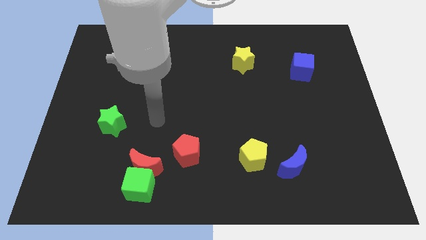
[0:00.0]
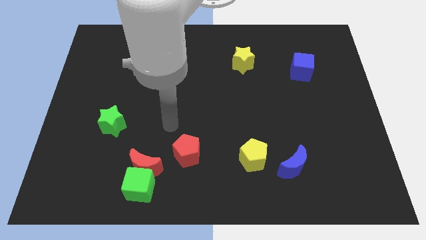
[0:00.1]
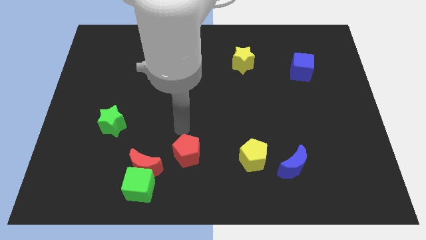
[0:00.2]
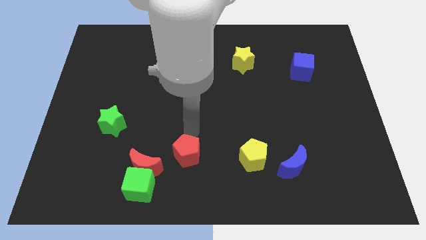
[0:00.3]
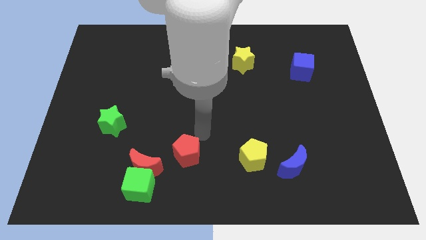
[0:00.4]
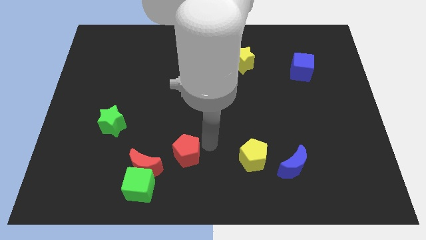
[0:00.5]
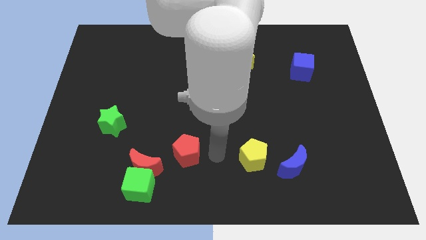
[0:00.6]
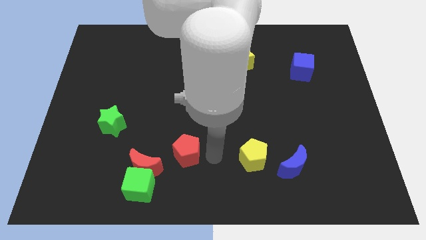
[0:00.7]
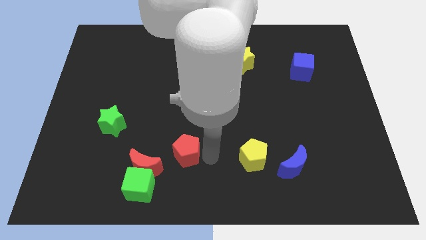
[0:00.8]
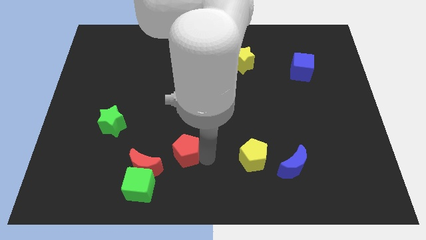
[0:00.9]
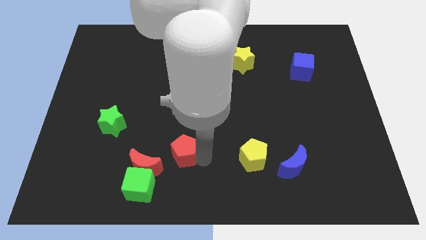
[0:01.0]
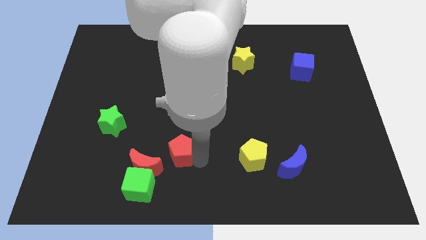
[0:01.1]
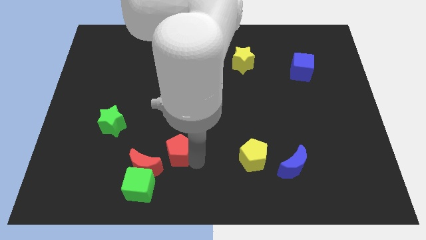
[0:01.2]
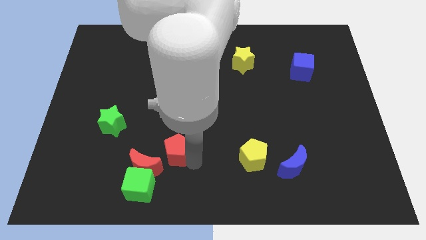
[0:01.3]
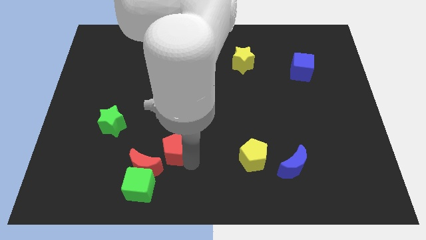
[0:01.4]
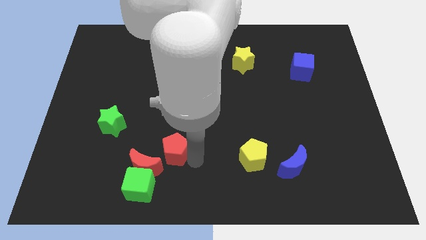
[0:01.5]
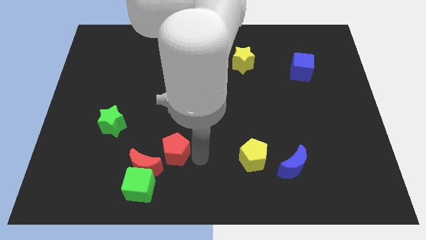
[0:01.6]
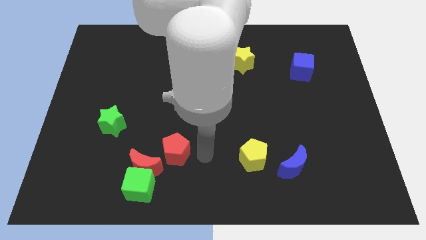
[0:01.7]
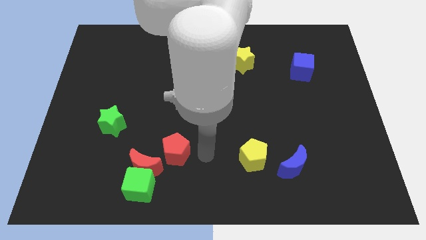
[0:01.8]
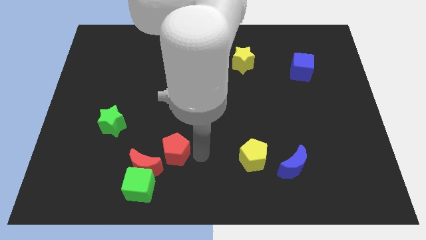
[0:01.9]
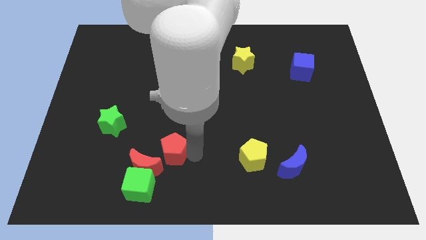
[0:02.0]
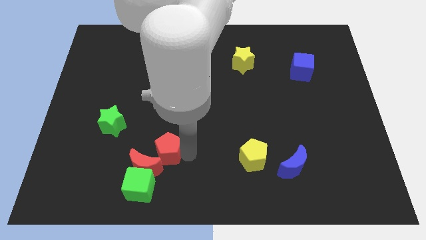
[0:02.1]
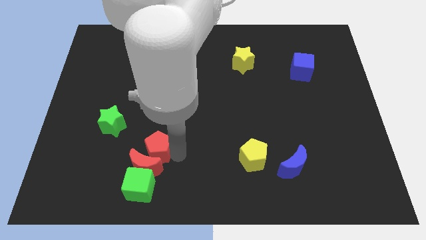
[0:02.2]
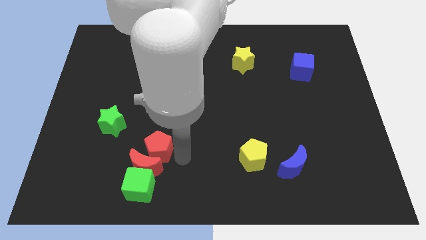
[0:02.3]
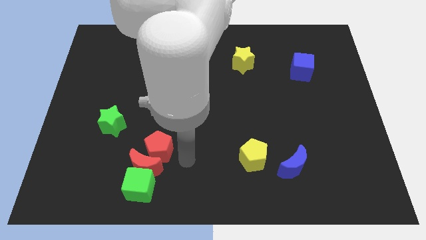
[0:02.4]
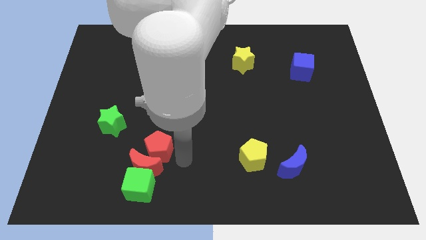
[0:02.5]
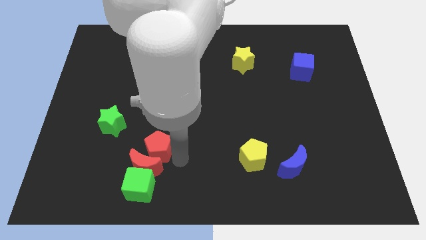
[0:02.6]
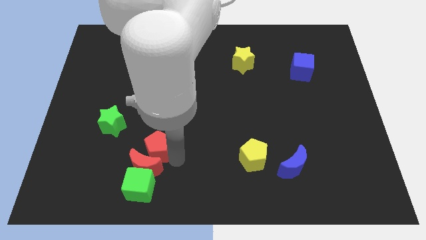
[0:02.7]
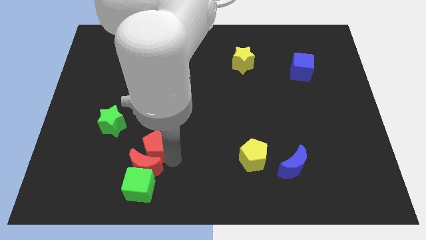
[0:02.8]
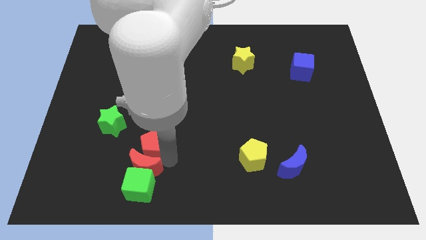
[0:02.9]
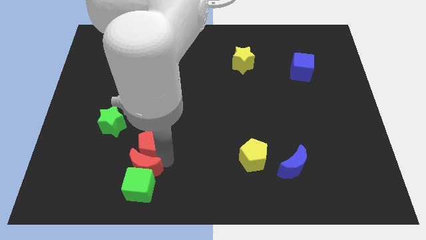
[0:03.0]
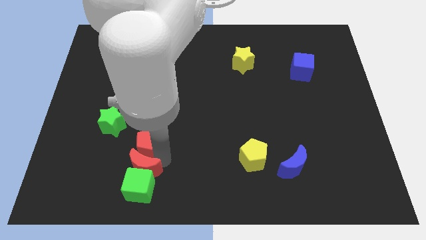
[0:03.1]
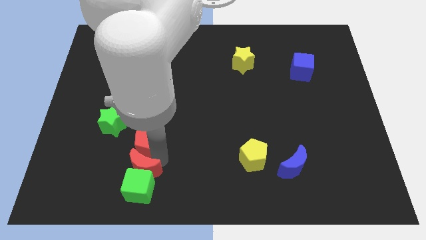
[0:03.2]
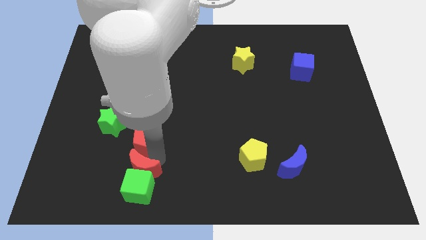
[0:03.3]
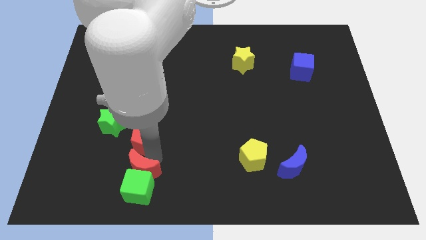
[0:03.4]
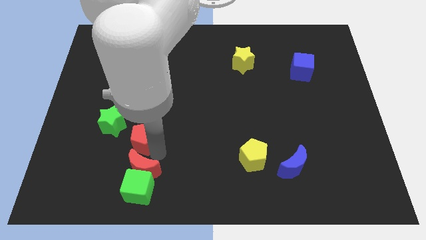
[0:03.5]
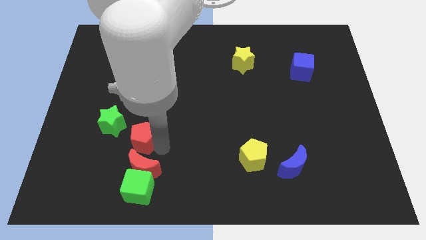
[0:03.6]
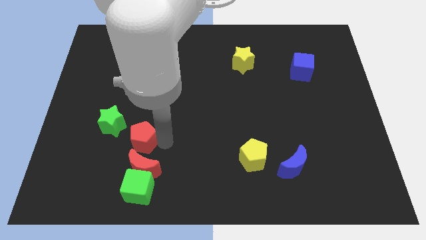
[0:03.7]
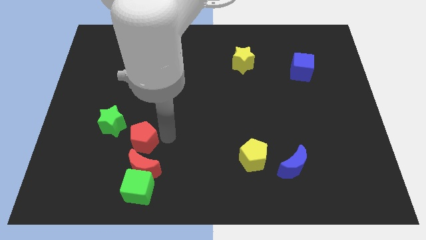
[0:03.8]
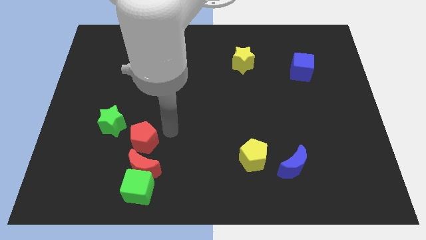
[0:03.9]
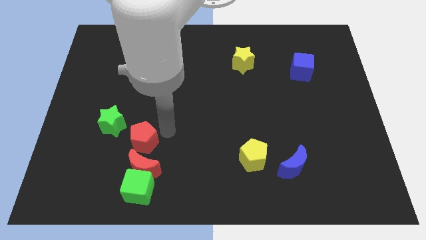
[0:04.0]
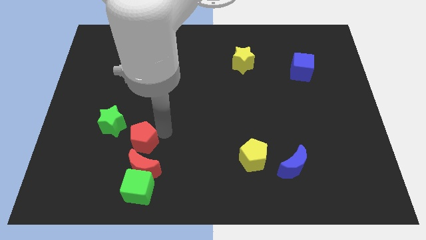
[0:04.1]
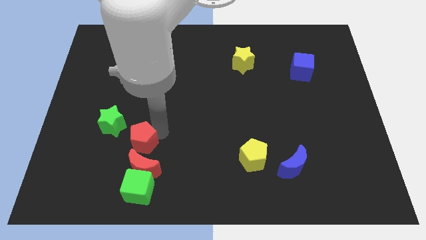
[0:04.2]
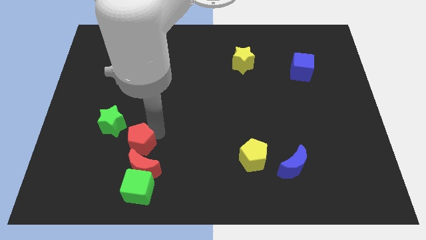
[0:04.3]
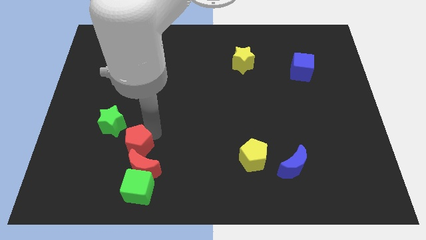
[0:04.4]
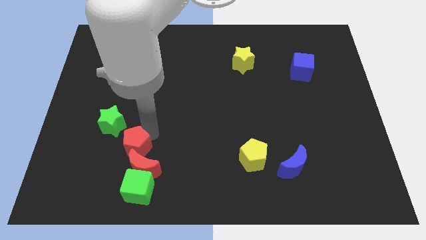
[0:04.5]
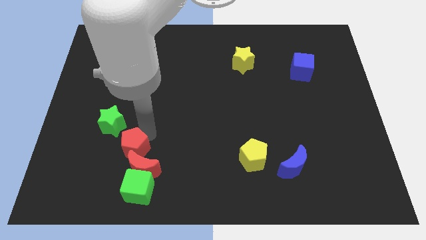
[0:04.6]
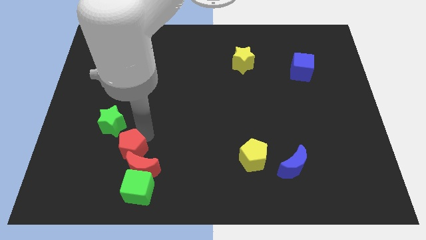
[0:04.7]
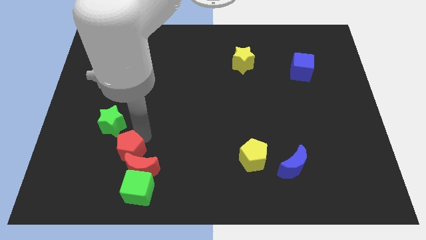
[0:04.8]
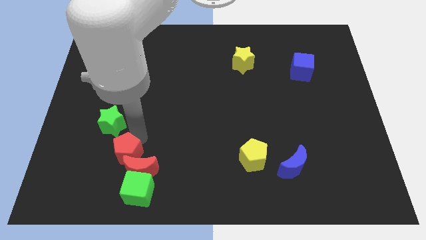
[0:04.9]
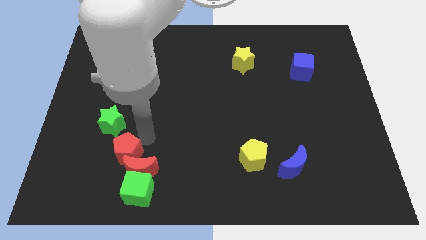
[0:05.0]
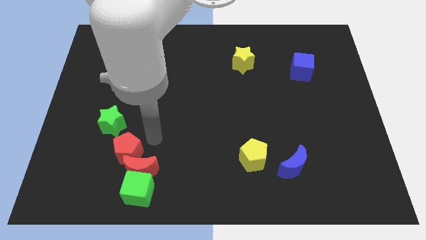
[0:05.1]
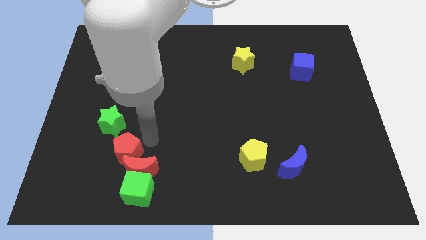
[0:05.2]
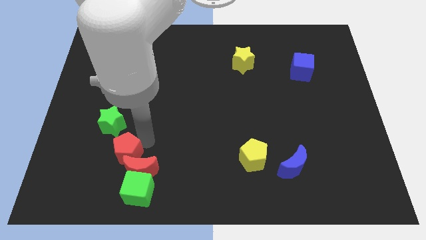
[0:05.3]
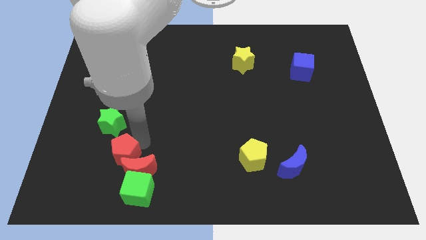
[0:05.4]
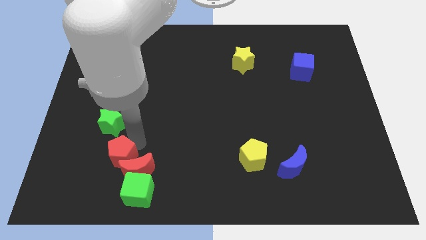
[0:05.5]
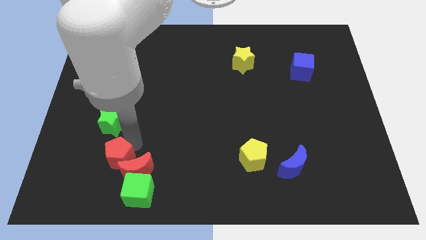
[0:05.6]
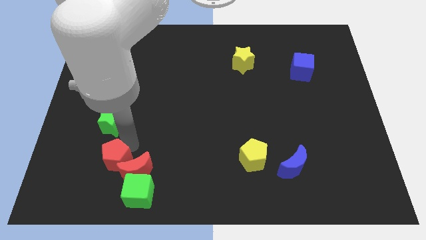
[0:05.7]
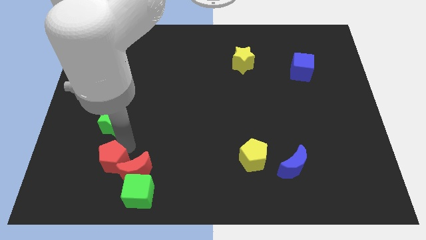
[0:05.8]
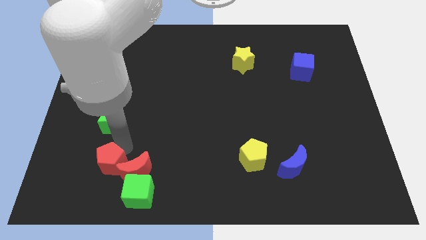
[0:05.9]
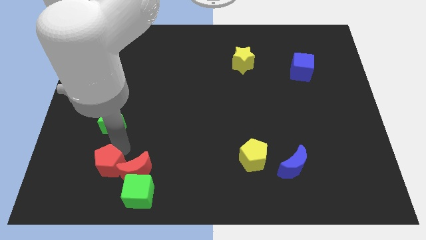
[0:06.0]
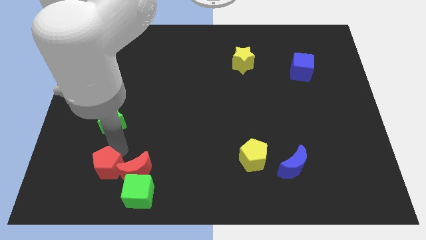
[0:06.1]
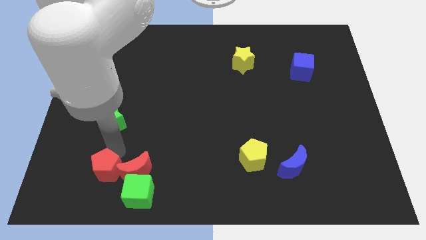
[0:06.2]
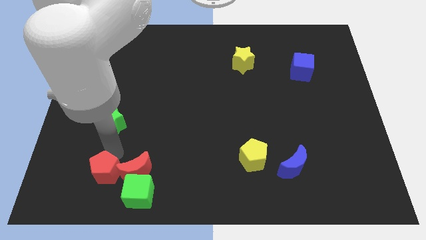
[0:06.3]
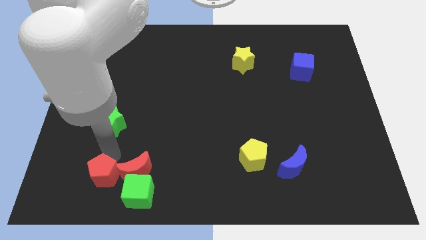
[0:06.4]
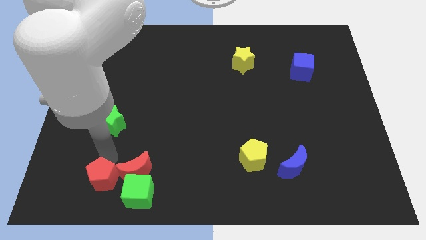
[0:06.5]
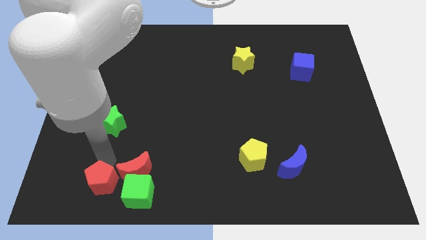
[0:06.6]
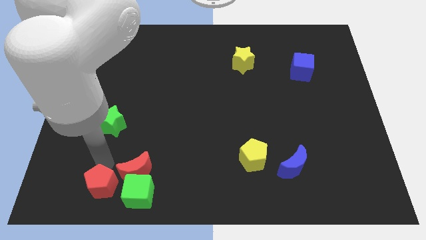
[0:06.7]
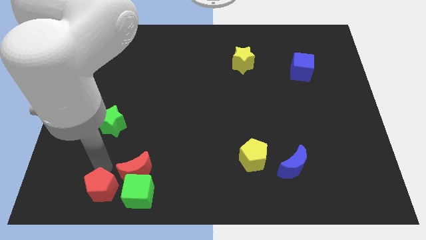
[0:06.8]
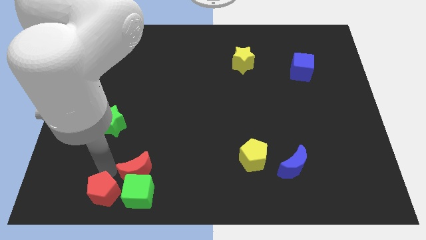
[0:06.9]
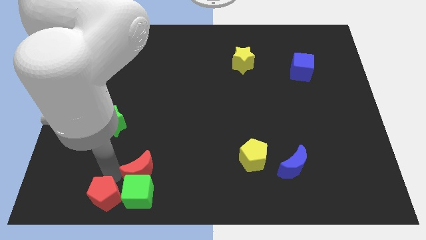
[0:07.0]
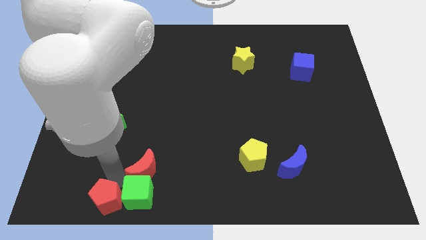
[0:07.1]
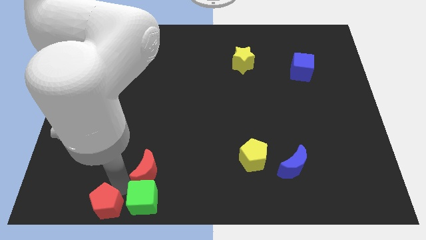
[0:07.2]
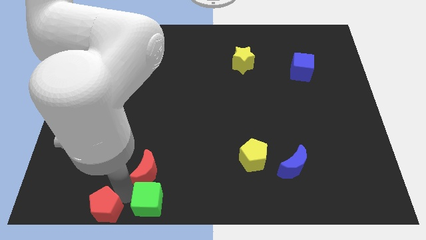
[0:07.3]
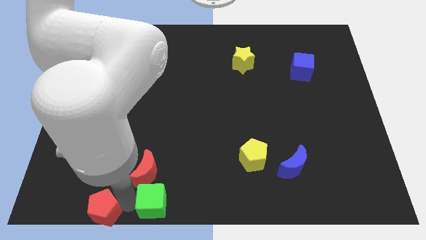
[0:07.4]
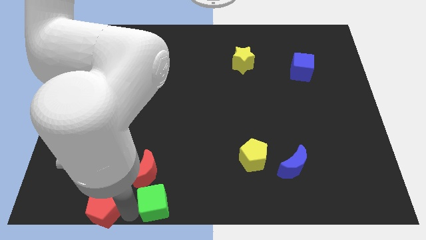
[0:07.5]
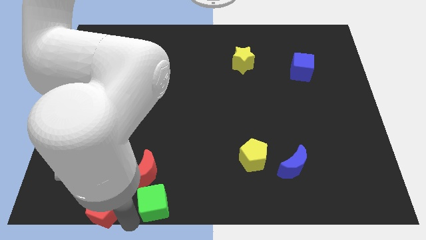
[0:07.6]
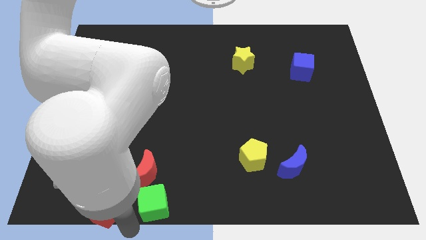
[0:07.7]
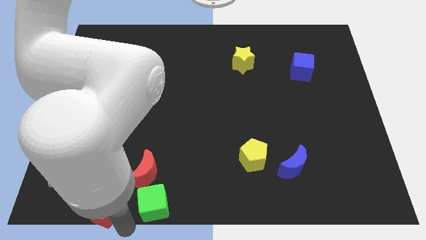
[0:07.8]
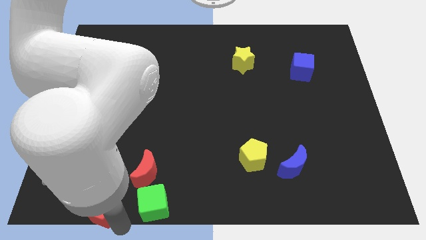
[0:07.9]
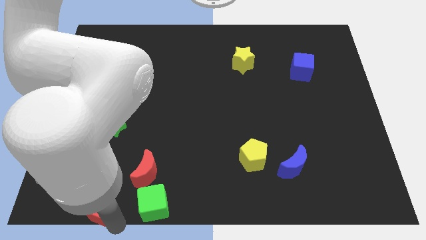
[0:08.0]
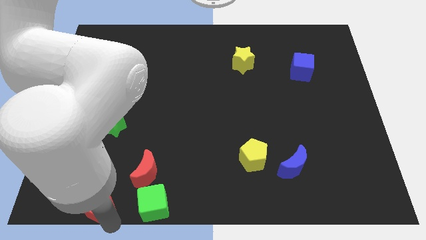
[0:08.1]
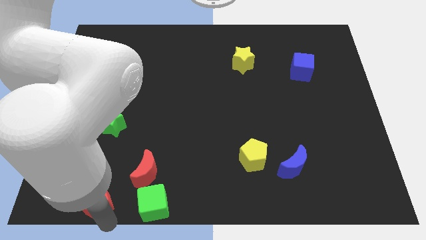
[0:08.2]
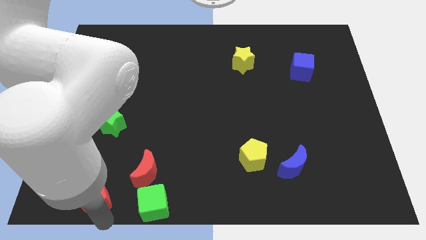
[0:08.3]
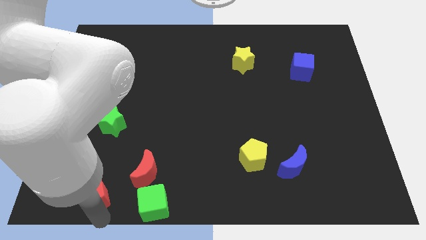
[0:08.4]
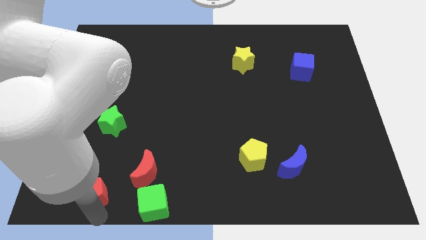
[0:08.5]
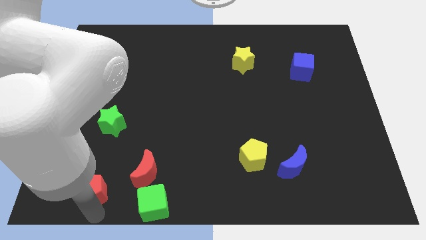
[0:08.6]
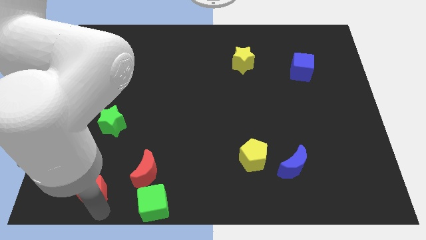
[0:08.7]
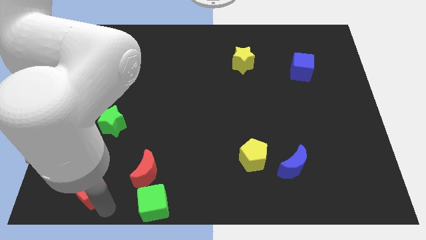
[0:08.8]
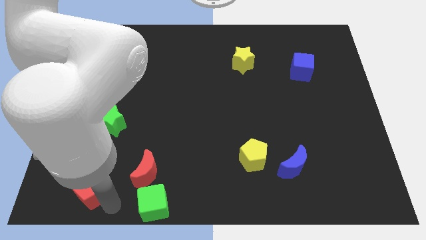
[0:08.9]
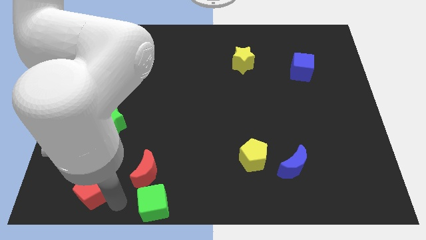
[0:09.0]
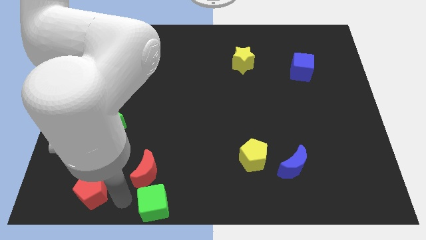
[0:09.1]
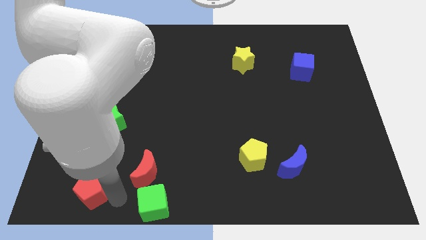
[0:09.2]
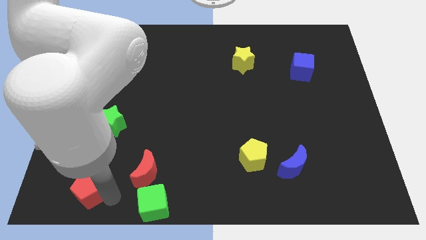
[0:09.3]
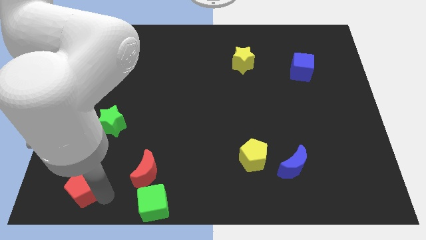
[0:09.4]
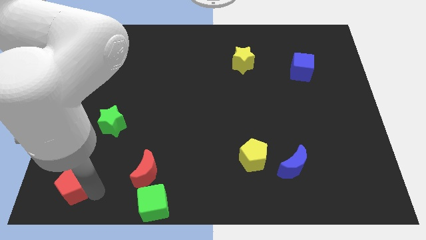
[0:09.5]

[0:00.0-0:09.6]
move the red pentagon to the bottom left corner
